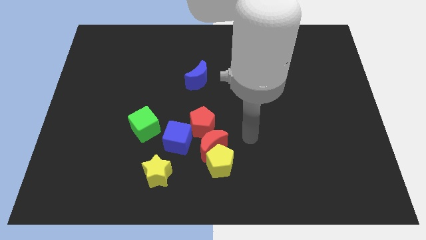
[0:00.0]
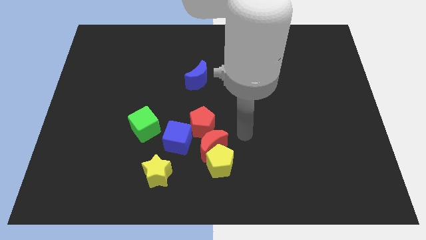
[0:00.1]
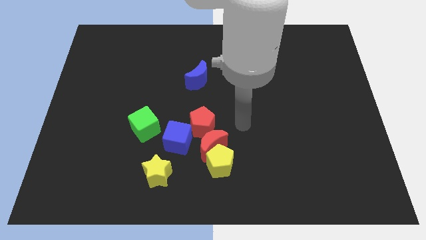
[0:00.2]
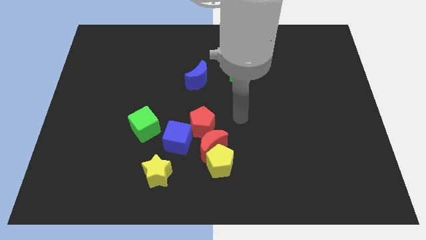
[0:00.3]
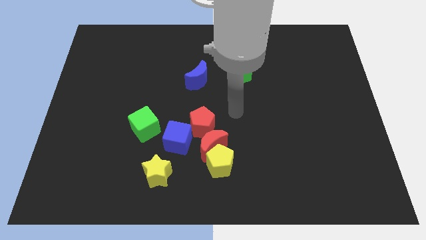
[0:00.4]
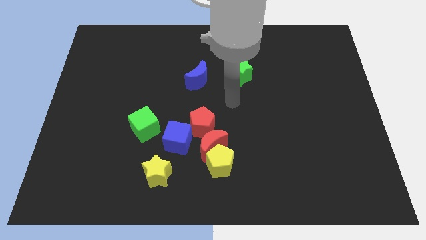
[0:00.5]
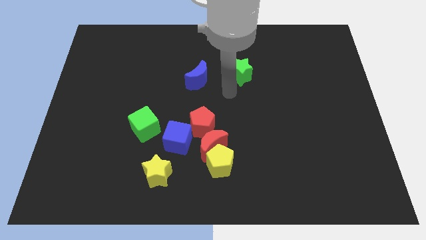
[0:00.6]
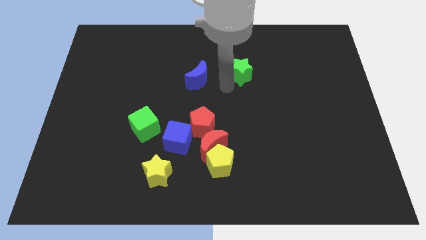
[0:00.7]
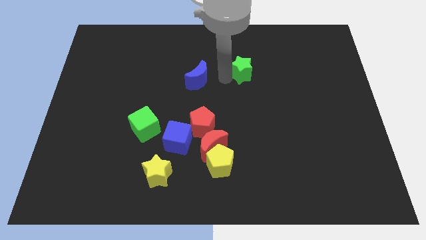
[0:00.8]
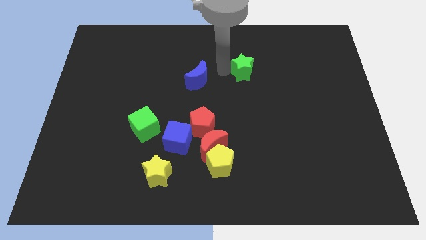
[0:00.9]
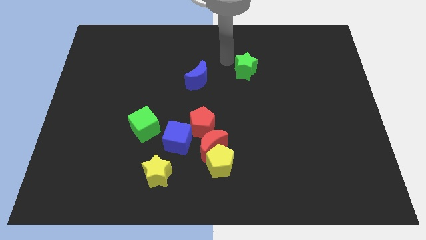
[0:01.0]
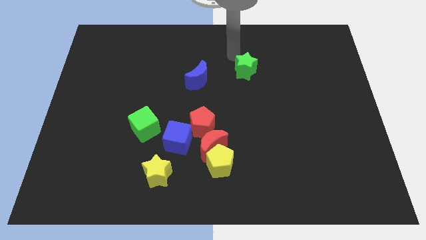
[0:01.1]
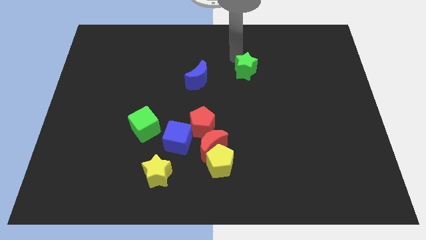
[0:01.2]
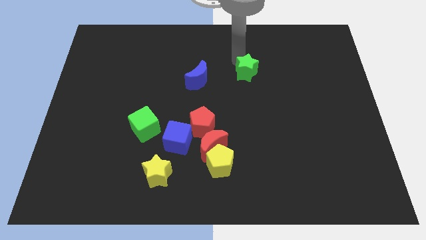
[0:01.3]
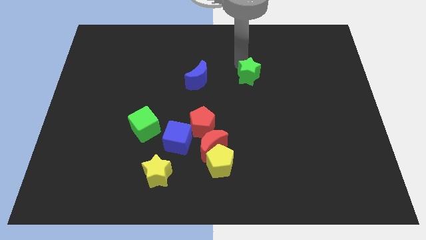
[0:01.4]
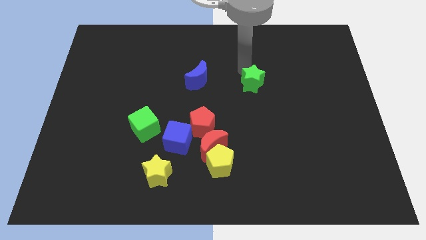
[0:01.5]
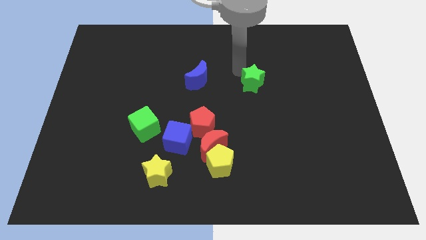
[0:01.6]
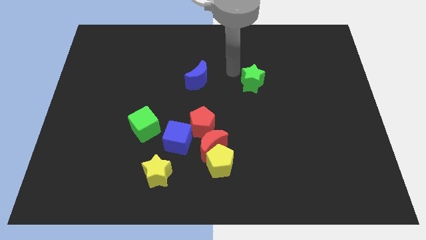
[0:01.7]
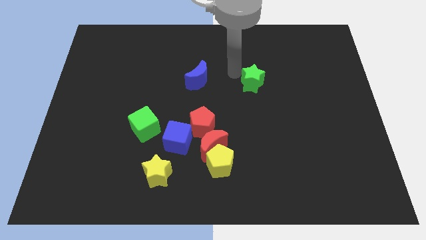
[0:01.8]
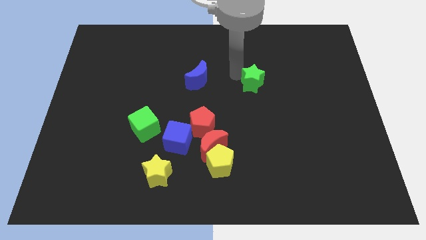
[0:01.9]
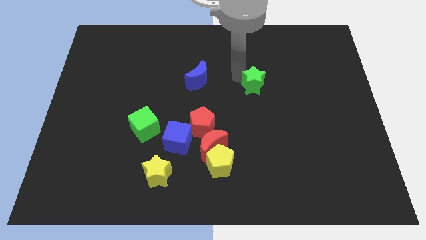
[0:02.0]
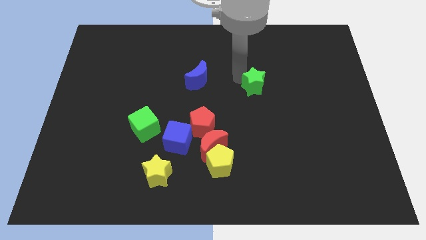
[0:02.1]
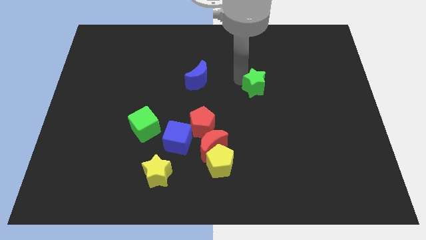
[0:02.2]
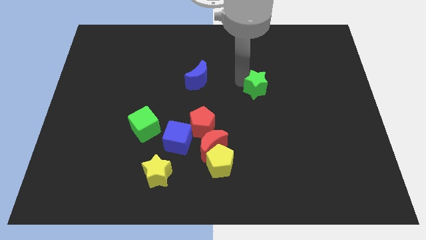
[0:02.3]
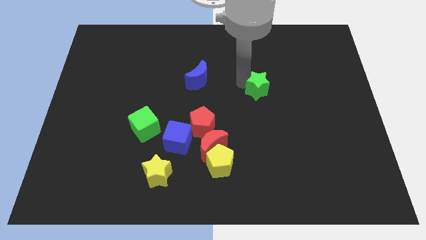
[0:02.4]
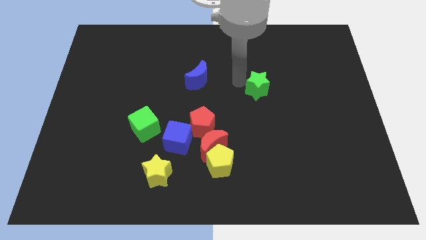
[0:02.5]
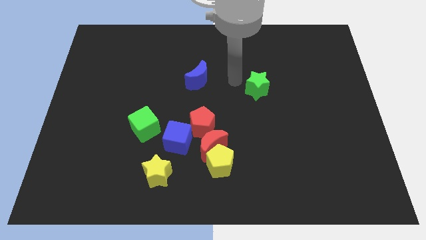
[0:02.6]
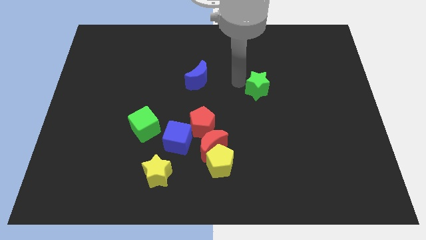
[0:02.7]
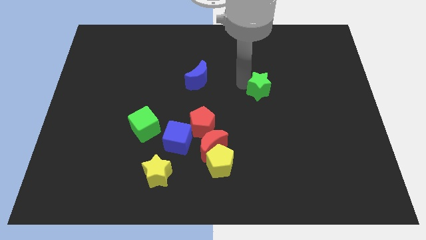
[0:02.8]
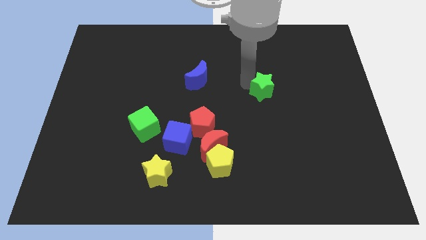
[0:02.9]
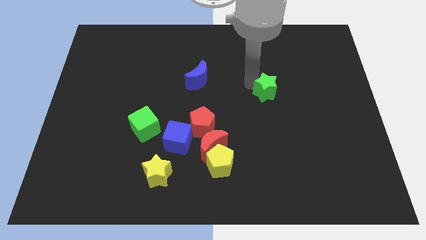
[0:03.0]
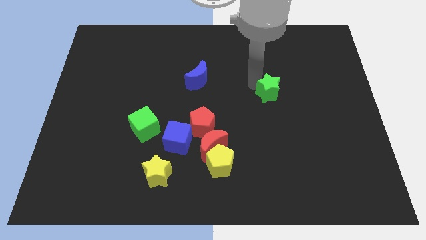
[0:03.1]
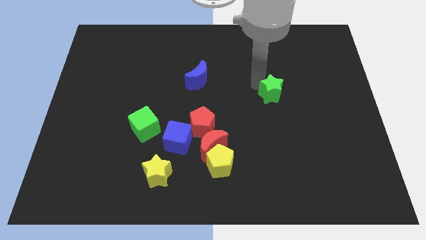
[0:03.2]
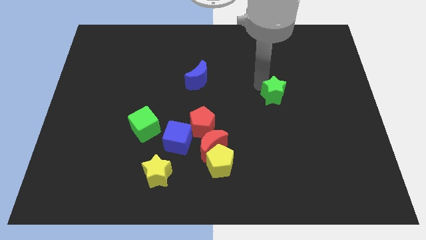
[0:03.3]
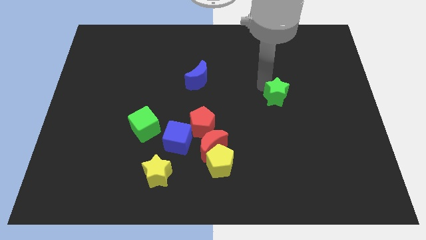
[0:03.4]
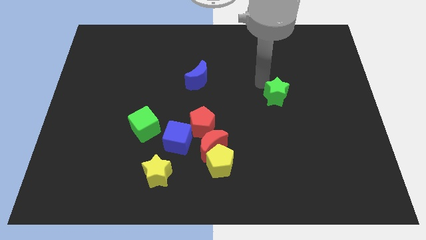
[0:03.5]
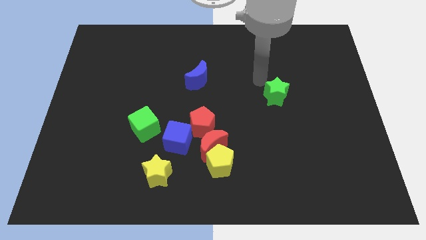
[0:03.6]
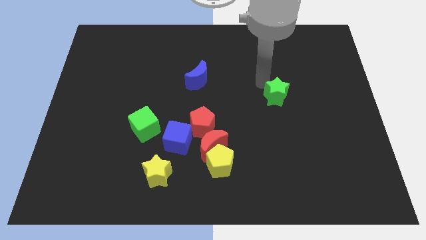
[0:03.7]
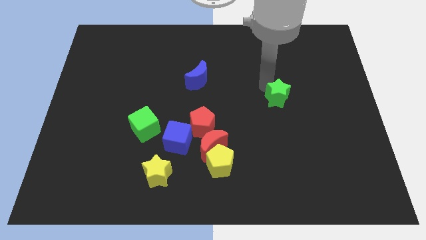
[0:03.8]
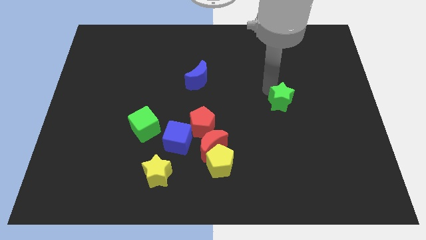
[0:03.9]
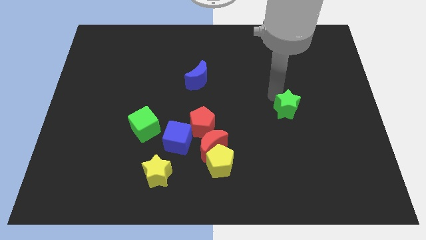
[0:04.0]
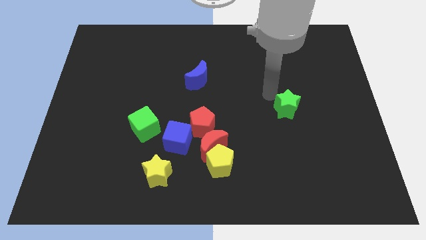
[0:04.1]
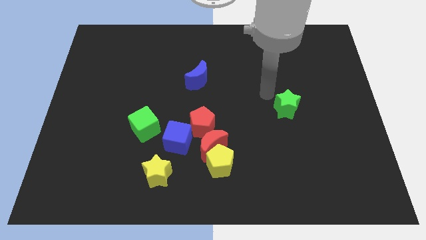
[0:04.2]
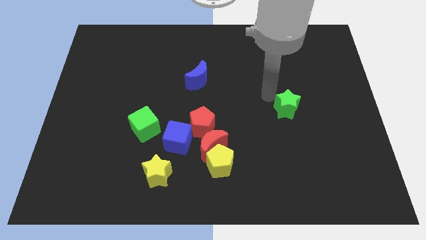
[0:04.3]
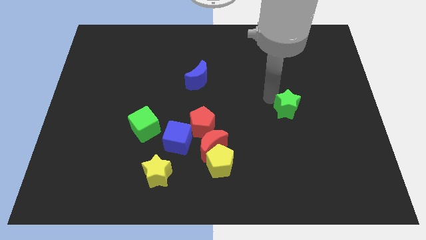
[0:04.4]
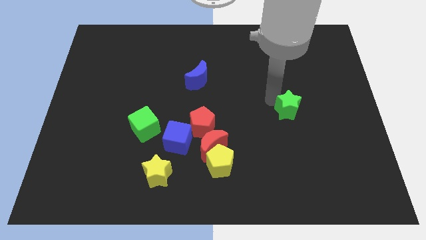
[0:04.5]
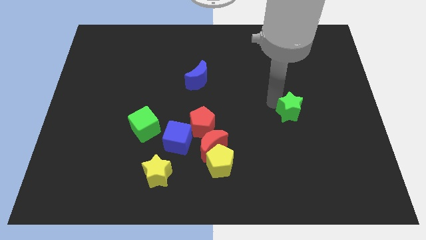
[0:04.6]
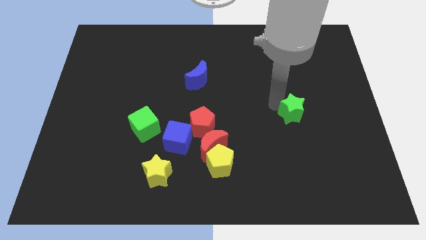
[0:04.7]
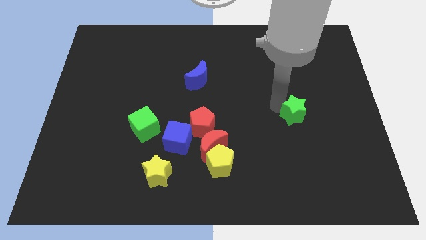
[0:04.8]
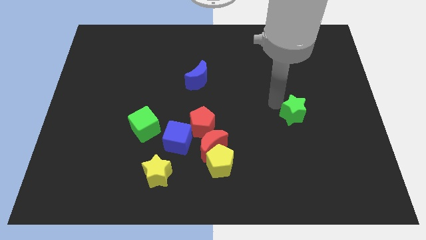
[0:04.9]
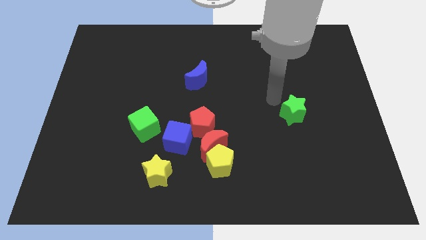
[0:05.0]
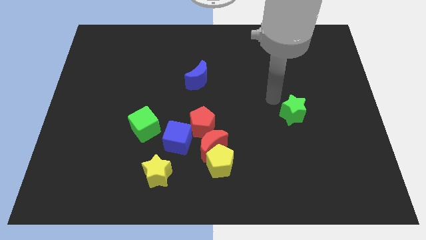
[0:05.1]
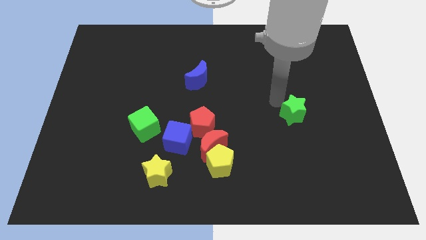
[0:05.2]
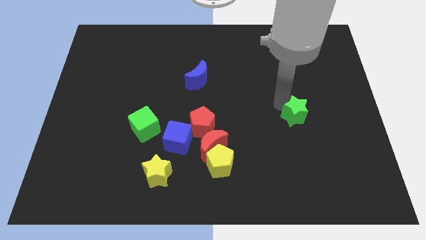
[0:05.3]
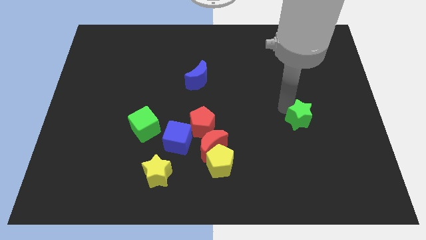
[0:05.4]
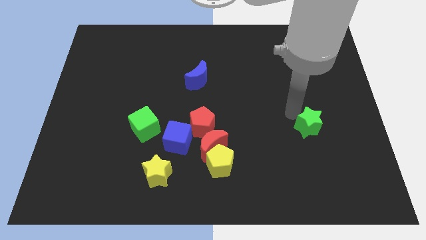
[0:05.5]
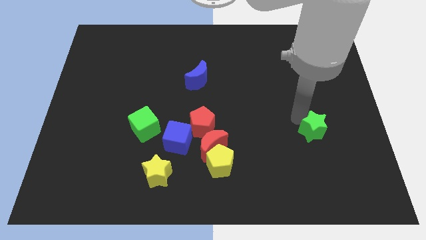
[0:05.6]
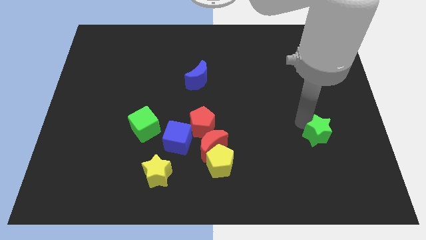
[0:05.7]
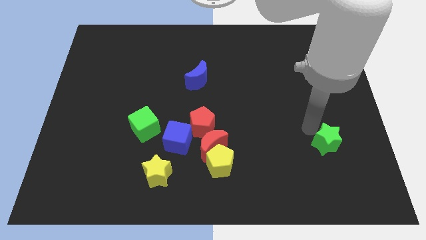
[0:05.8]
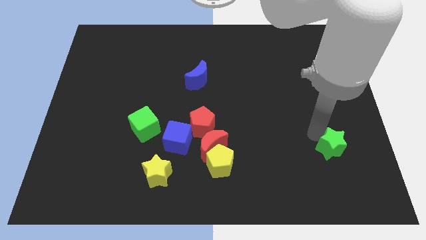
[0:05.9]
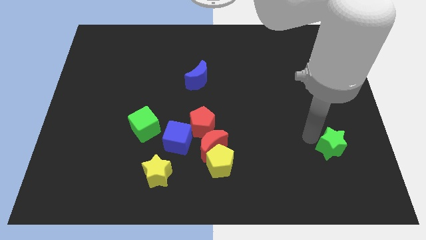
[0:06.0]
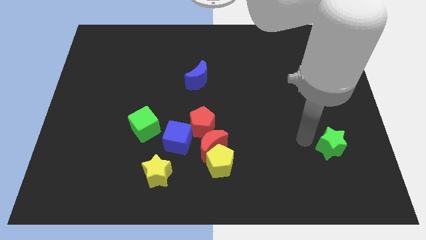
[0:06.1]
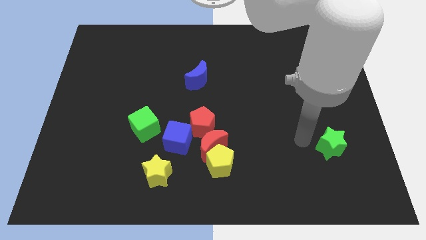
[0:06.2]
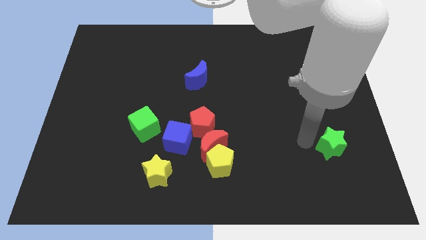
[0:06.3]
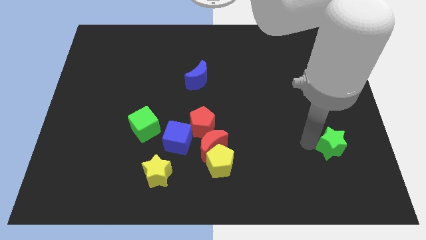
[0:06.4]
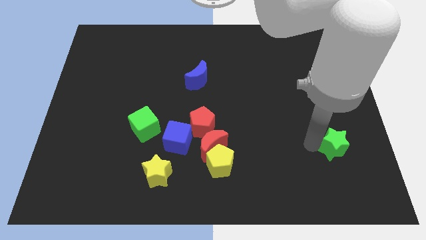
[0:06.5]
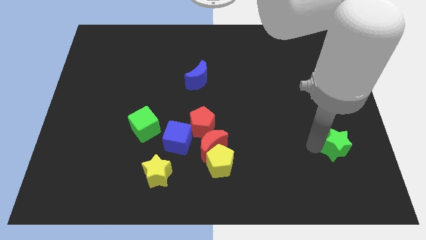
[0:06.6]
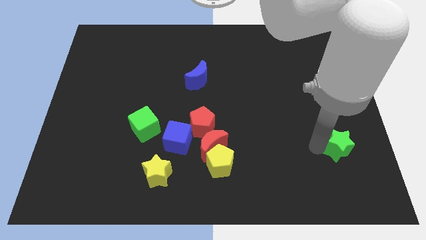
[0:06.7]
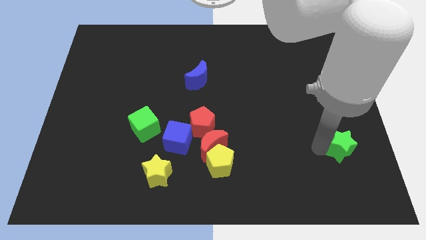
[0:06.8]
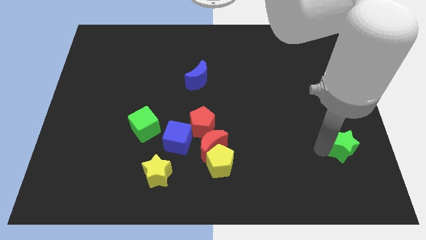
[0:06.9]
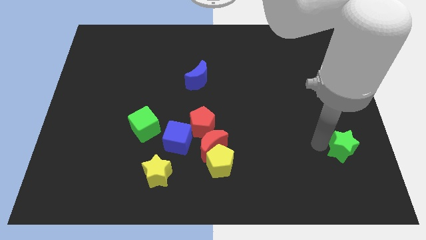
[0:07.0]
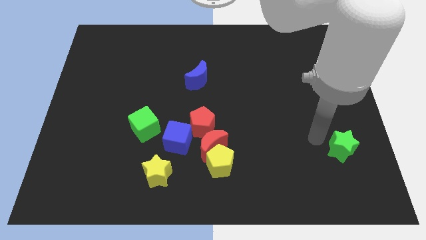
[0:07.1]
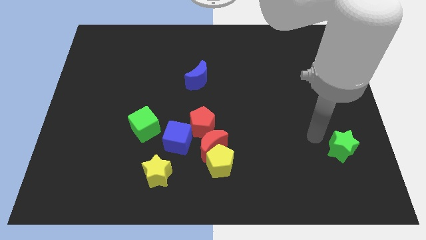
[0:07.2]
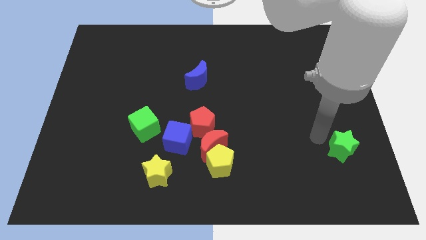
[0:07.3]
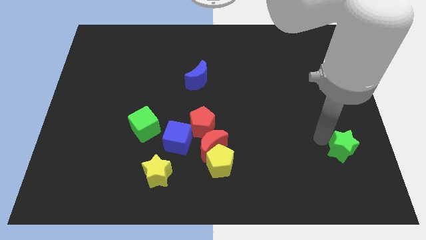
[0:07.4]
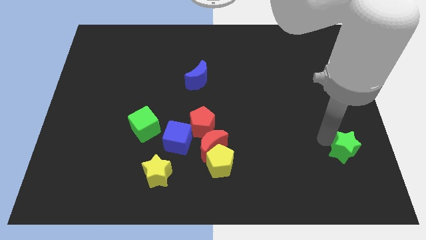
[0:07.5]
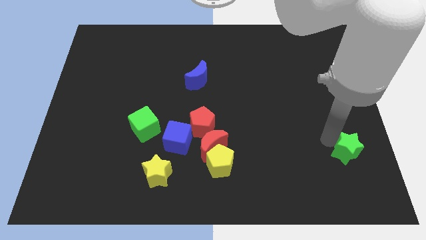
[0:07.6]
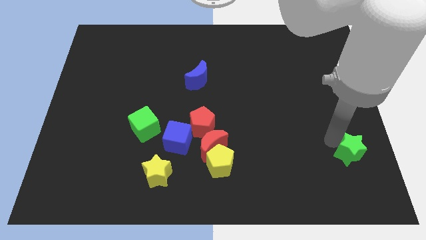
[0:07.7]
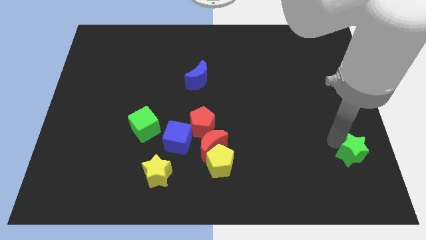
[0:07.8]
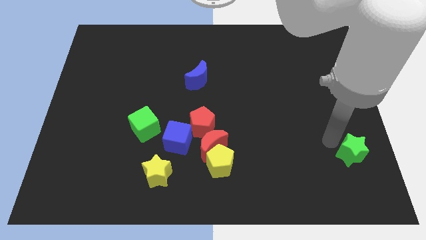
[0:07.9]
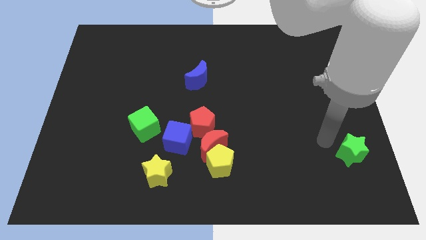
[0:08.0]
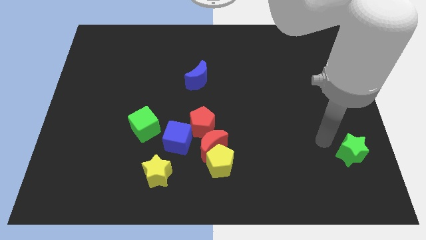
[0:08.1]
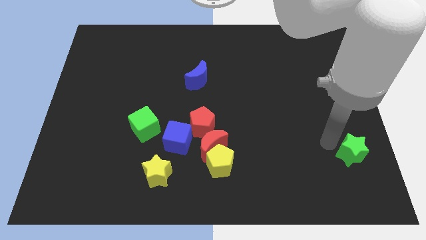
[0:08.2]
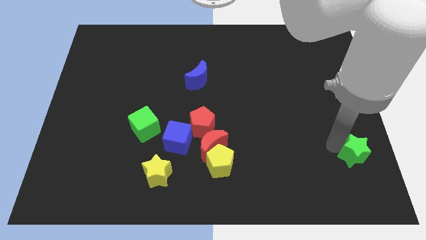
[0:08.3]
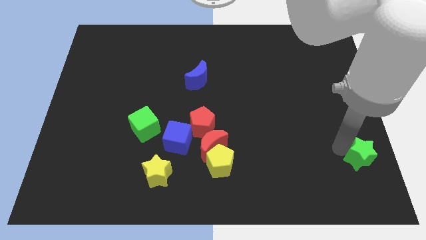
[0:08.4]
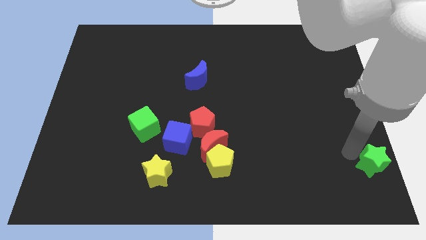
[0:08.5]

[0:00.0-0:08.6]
slide the green star to the bottom right of the board
